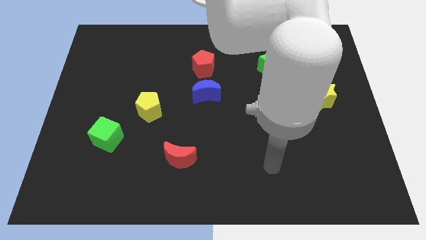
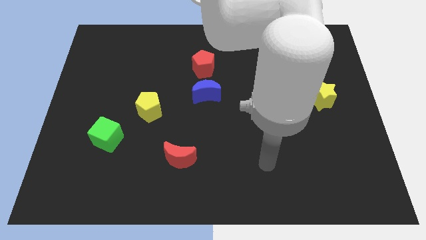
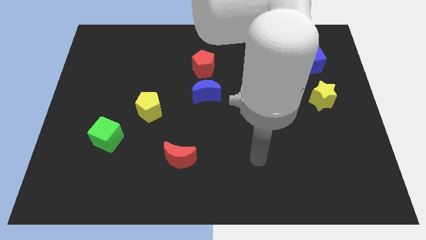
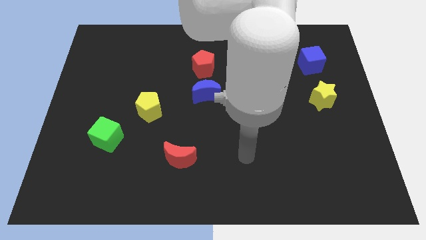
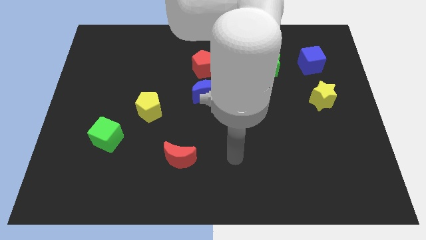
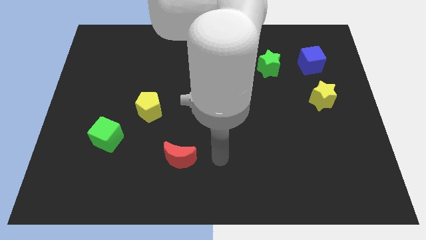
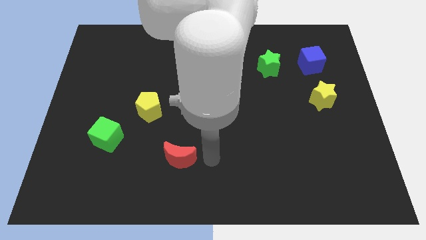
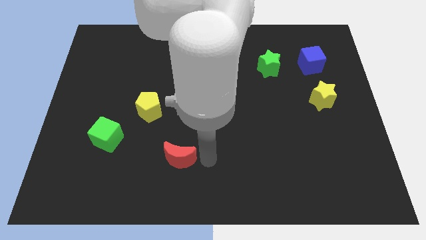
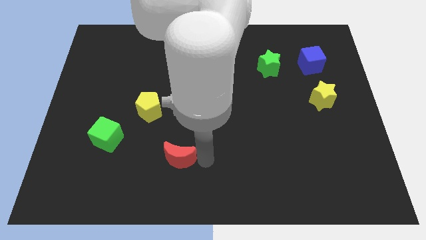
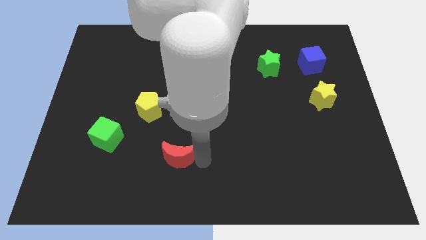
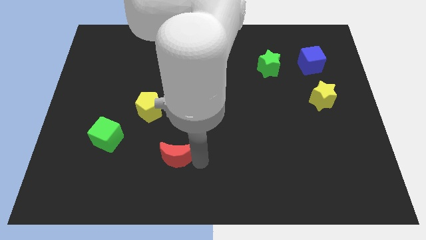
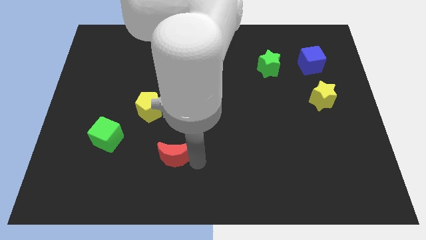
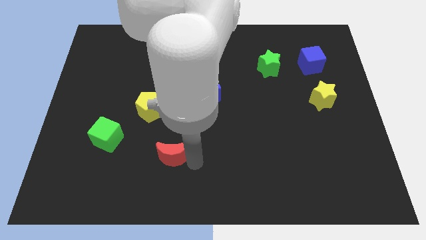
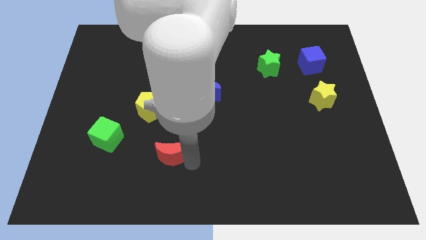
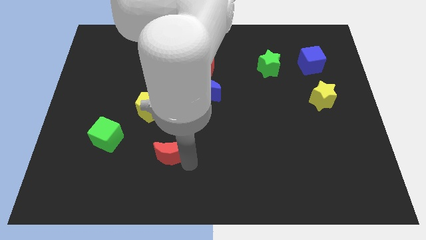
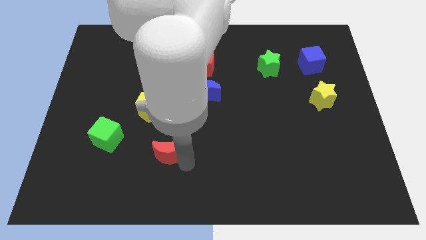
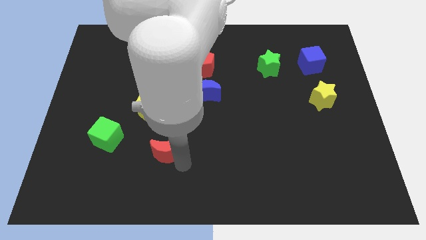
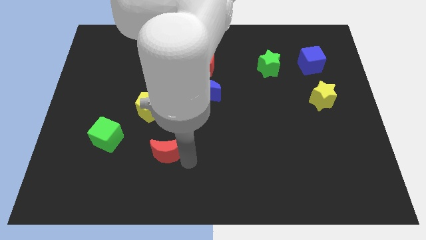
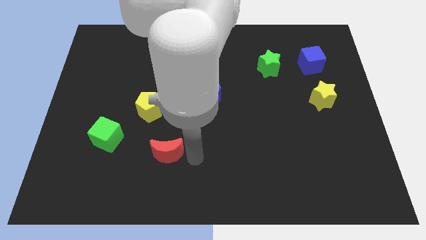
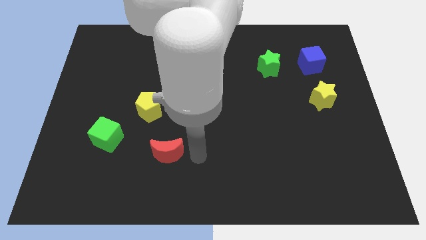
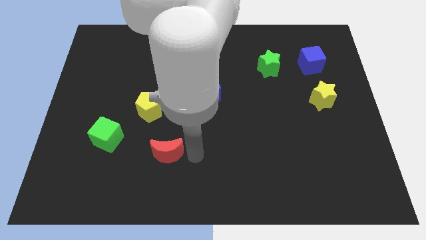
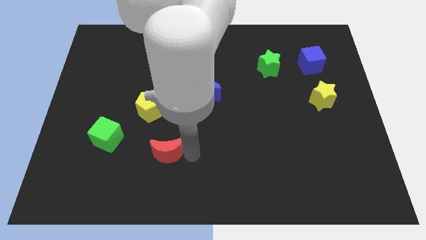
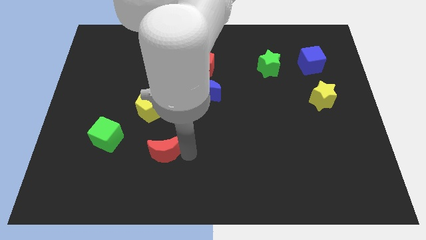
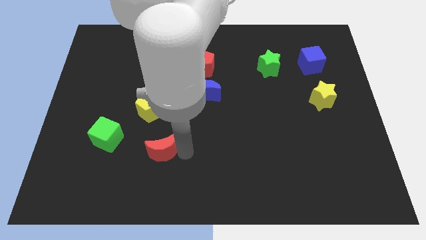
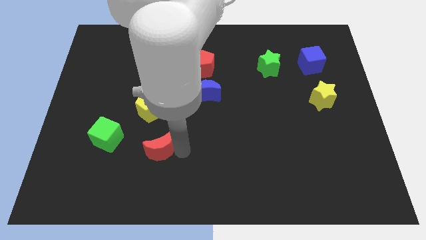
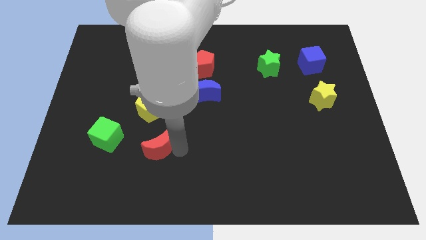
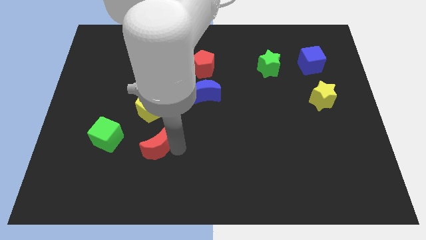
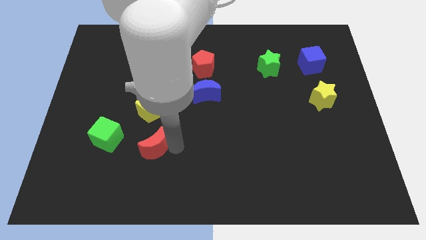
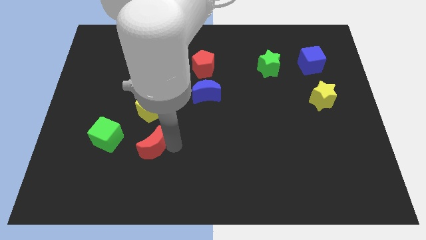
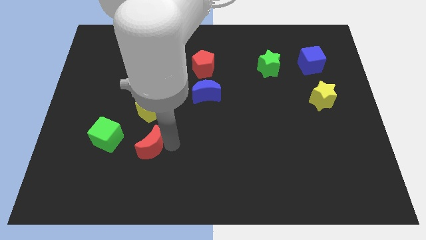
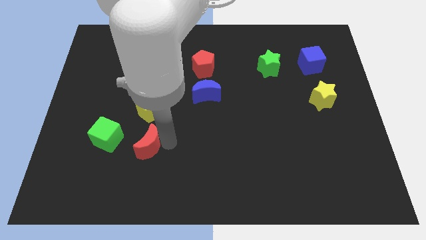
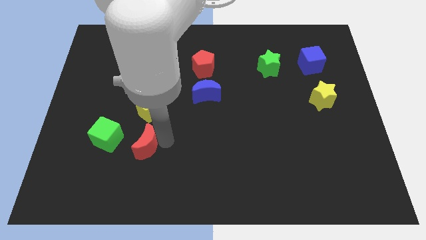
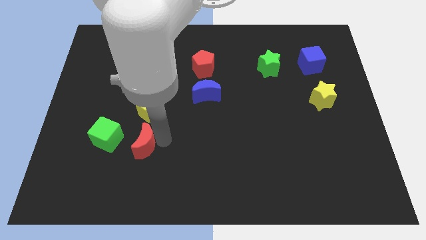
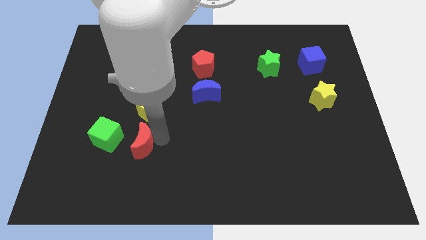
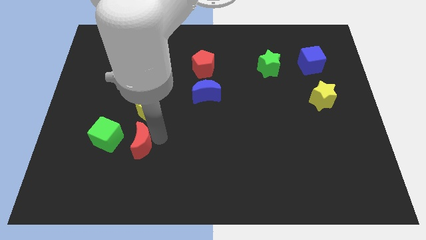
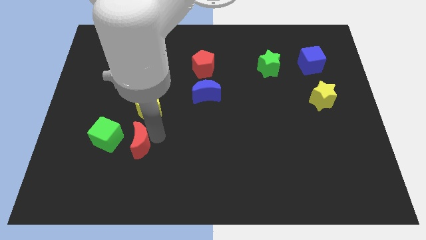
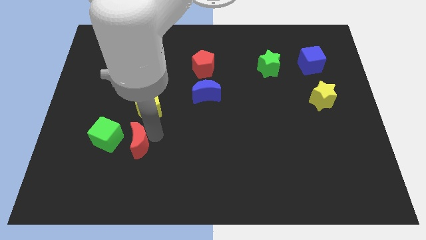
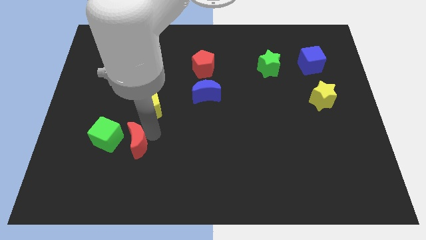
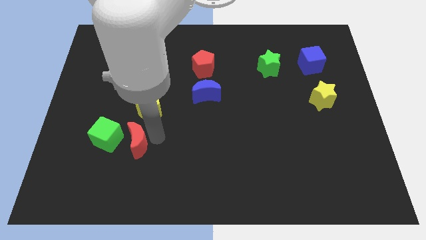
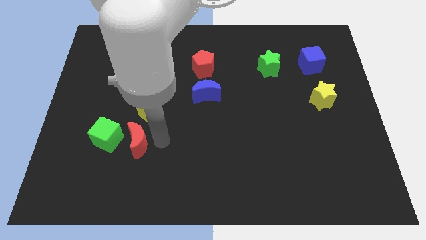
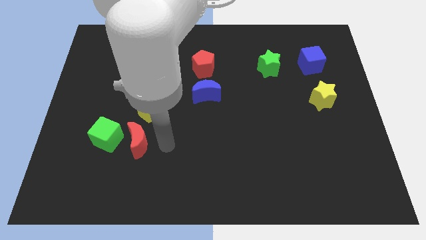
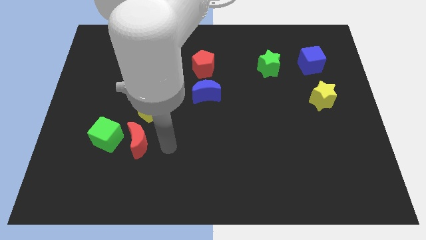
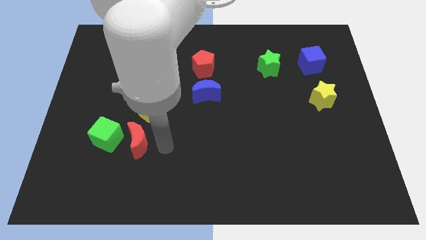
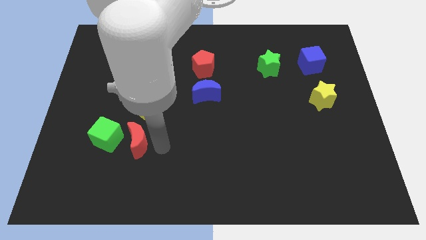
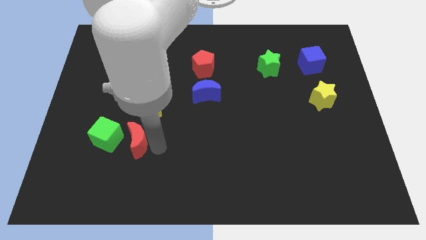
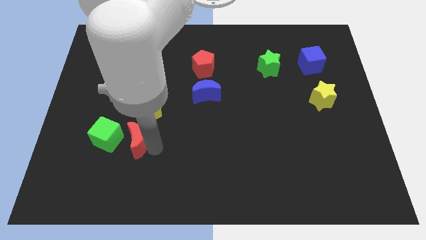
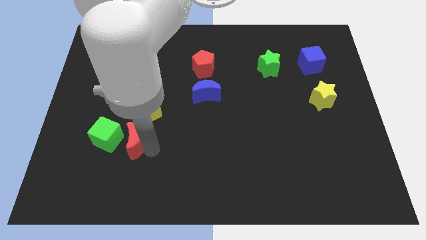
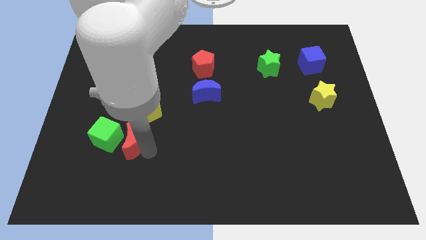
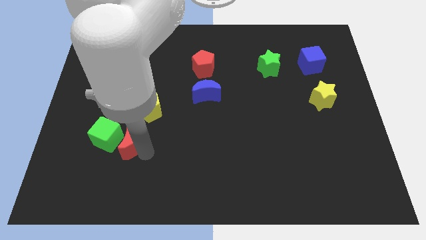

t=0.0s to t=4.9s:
push the red moon to the green cube

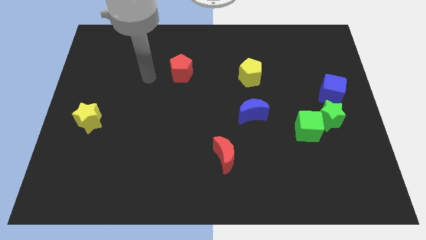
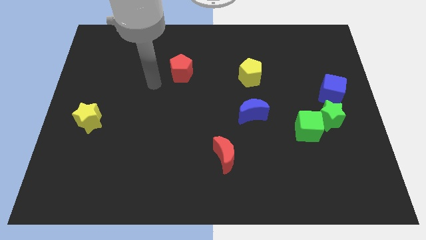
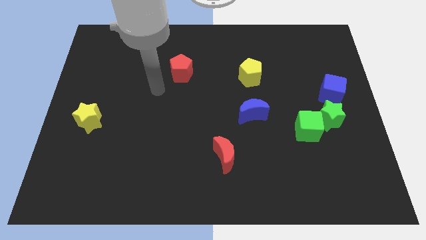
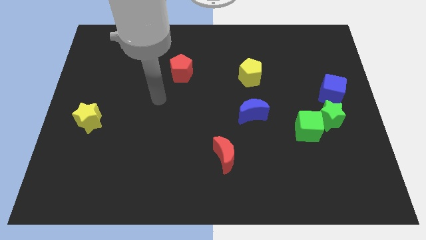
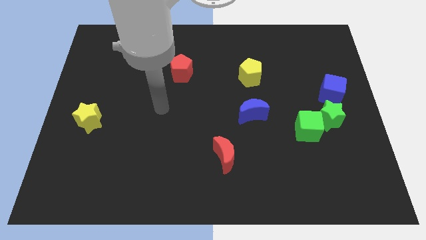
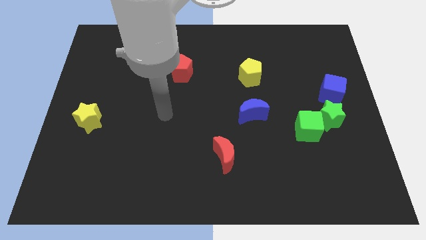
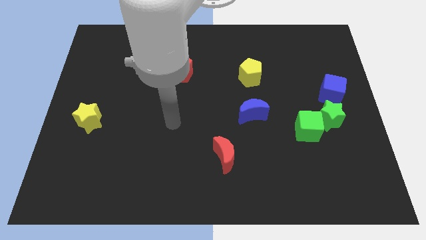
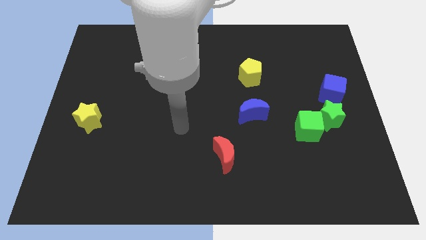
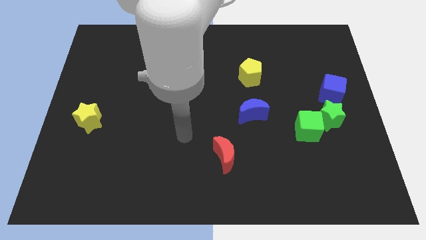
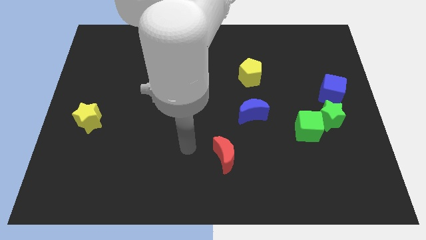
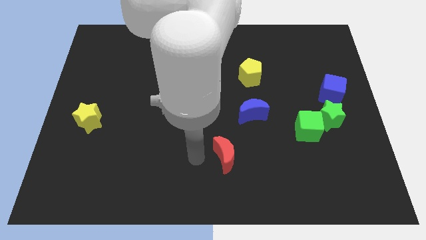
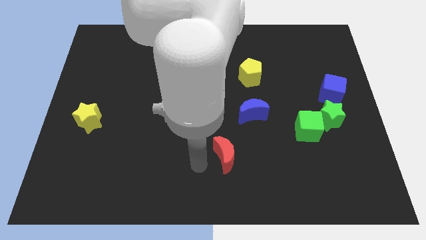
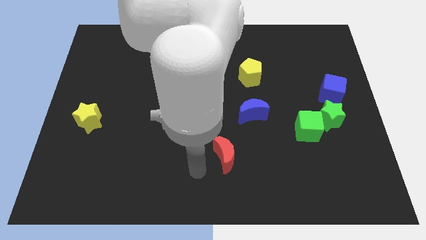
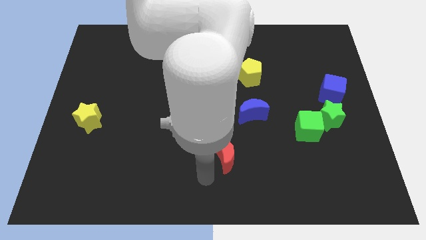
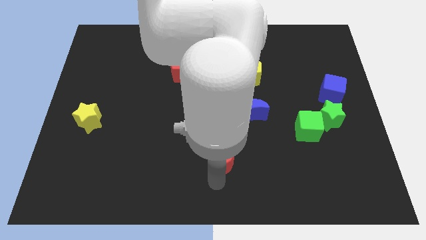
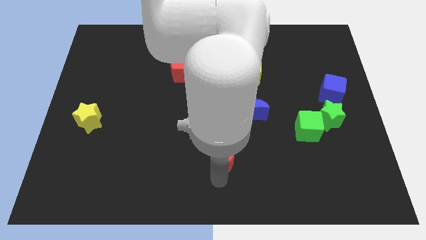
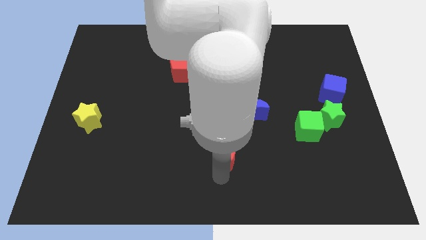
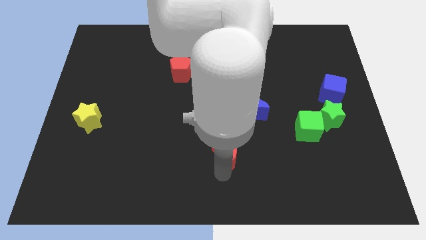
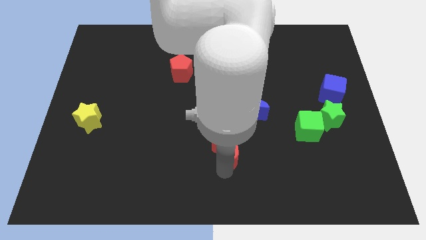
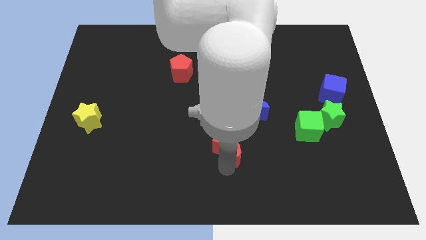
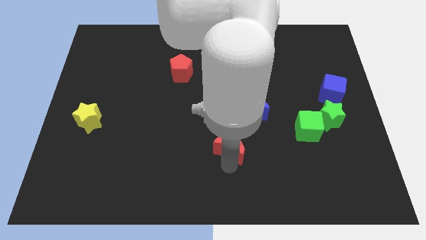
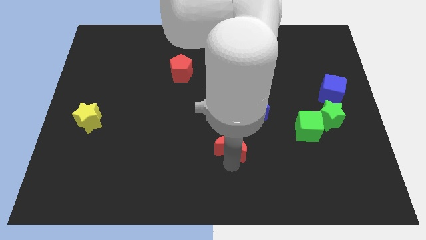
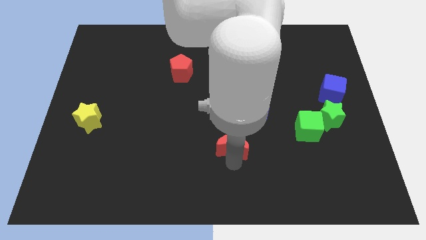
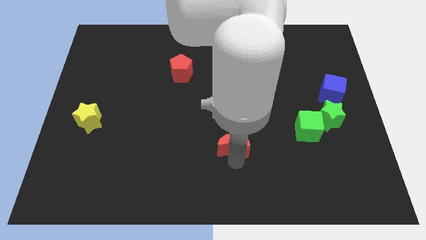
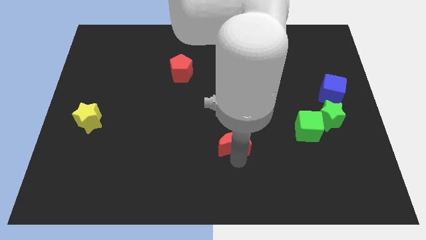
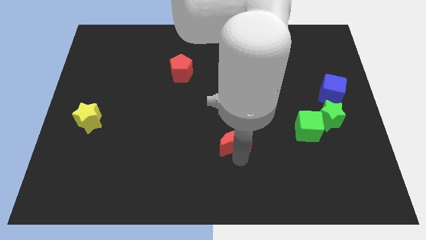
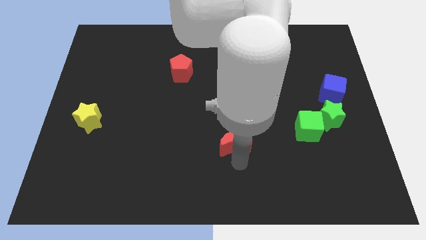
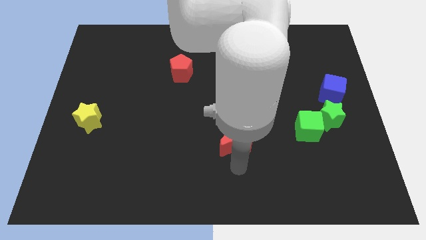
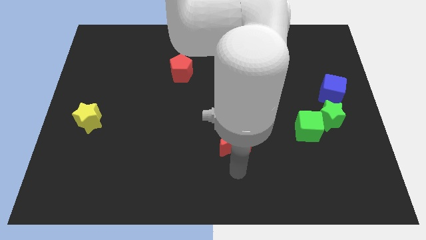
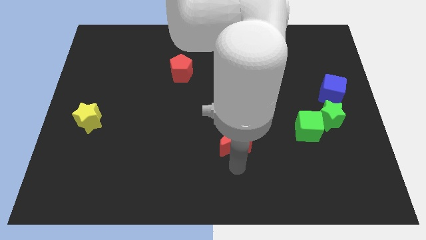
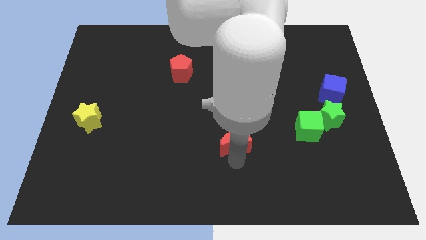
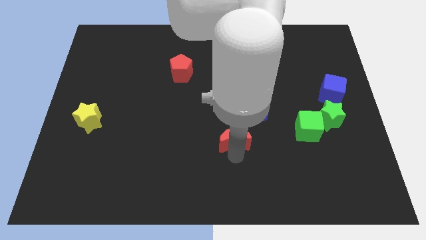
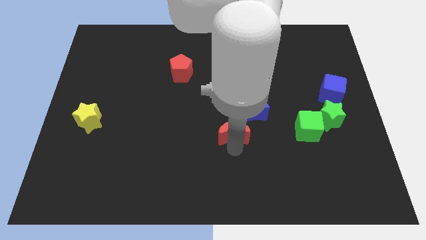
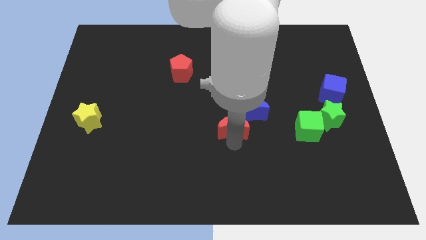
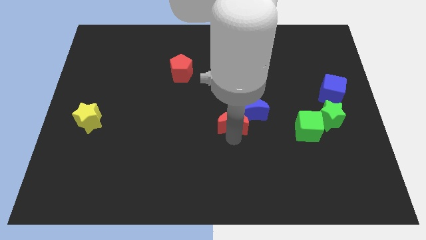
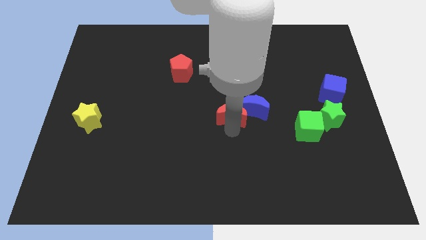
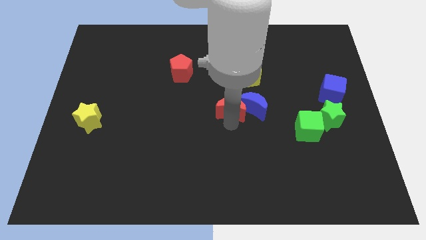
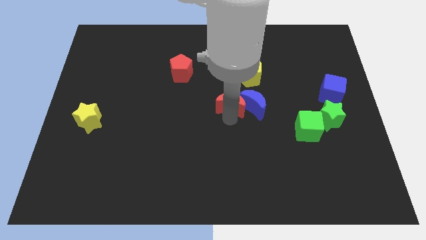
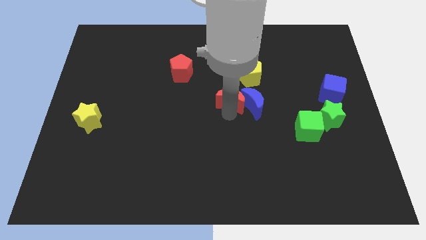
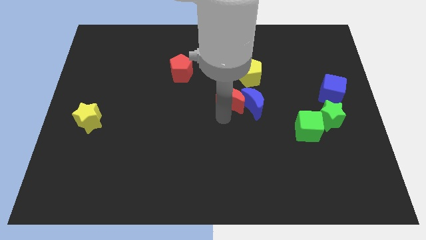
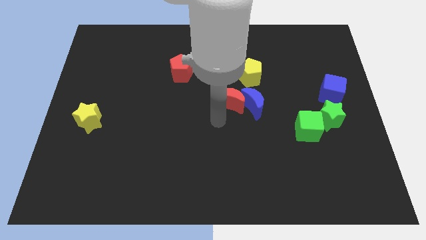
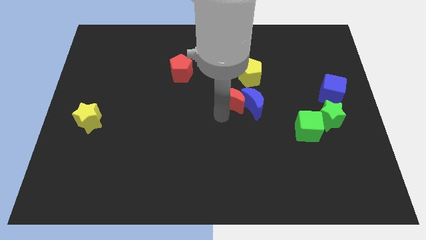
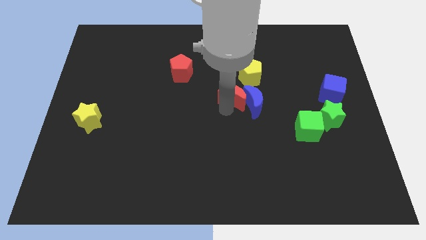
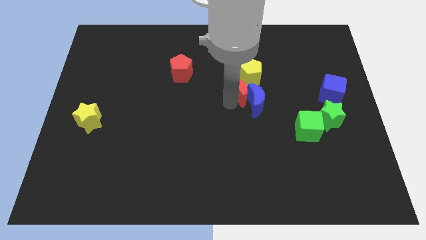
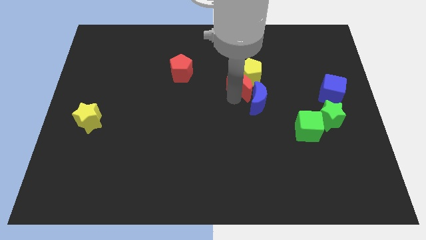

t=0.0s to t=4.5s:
put the red moon close to the yellow pentagon
